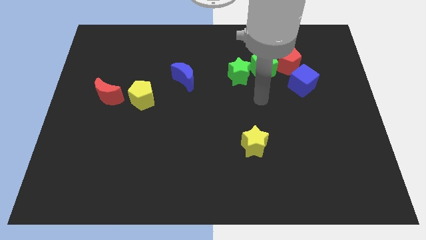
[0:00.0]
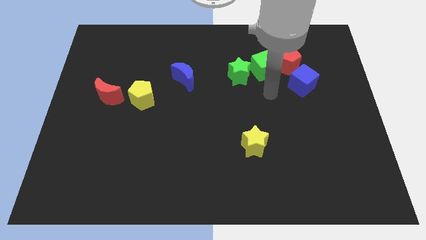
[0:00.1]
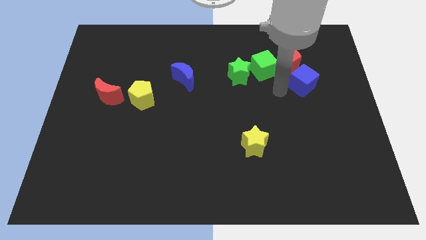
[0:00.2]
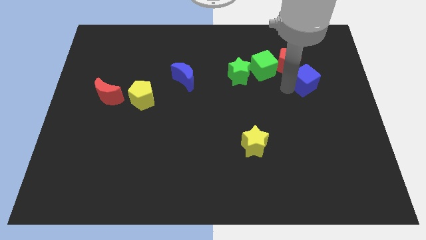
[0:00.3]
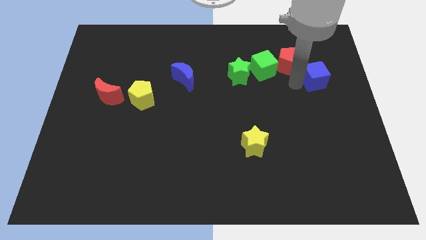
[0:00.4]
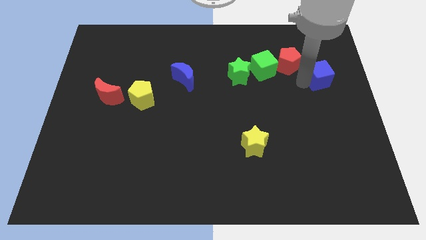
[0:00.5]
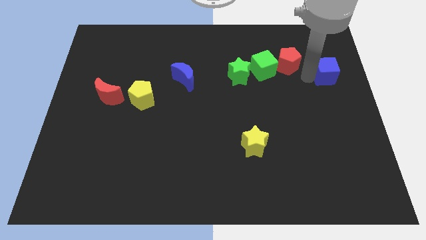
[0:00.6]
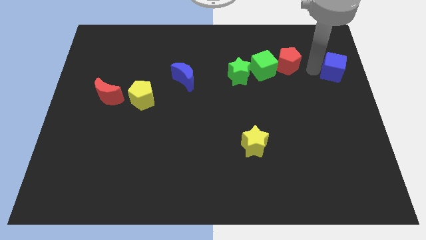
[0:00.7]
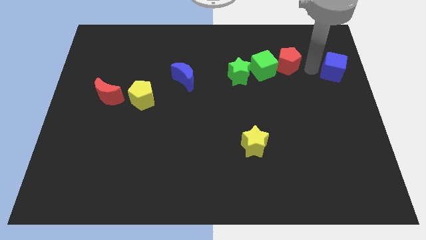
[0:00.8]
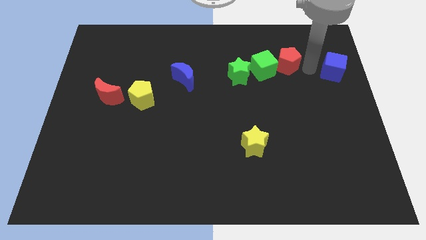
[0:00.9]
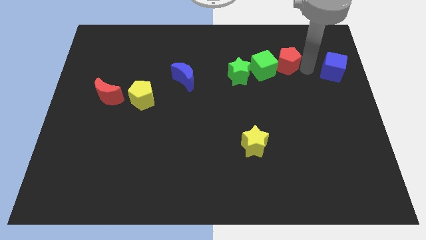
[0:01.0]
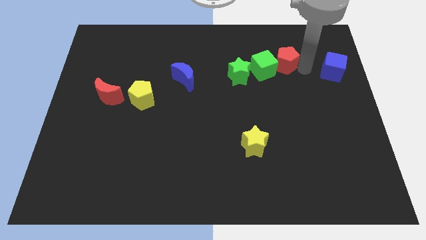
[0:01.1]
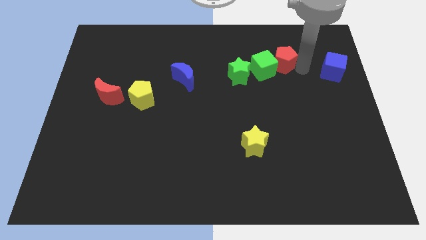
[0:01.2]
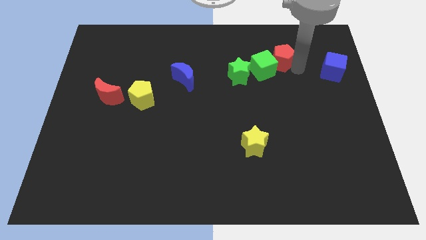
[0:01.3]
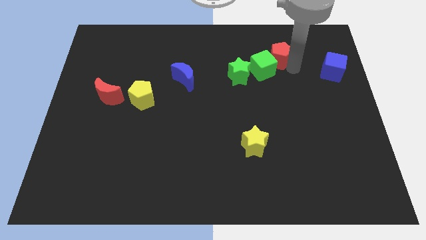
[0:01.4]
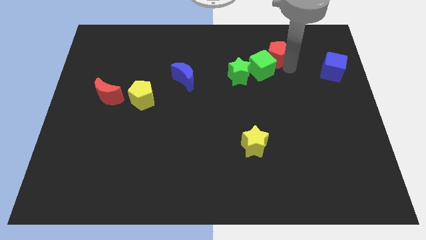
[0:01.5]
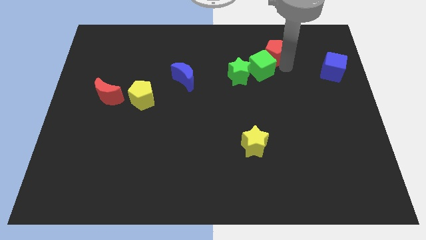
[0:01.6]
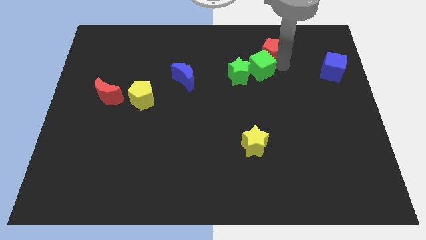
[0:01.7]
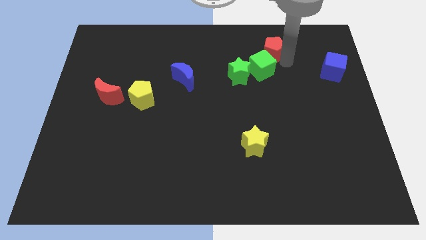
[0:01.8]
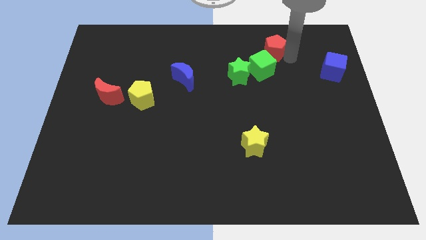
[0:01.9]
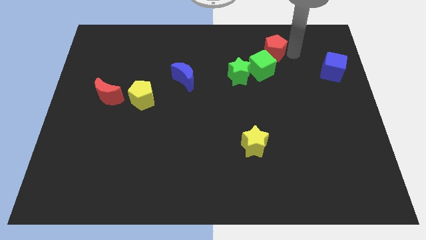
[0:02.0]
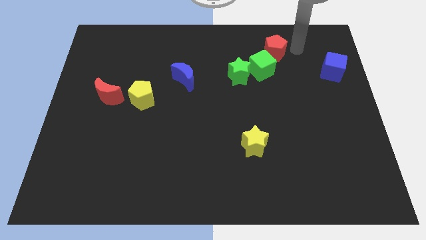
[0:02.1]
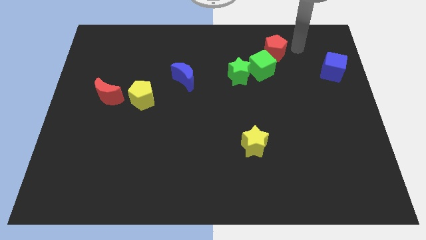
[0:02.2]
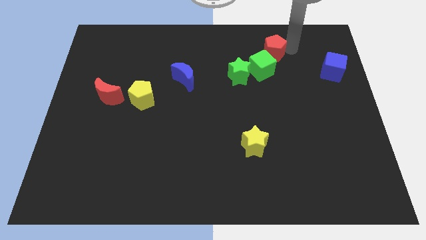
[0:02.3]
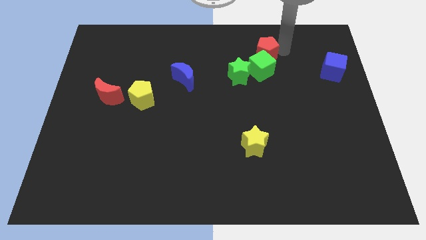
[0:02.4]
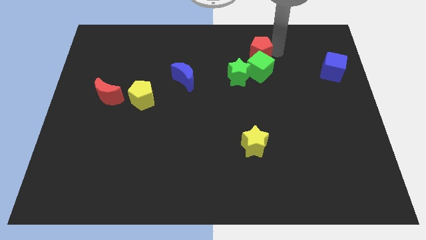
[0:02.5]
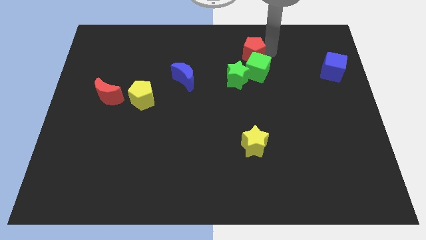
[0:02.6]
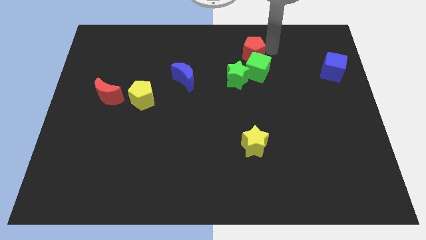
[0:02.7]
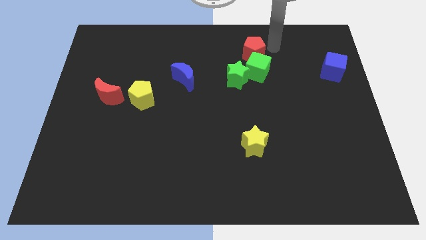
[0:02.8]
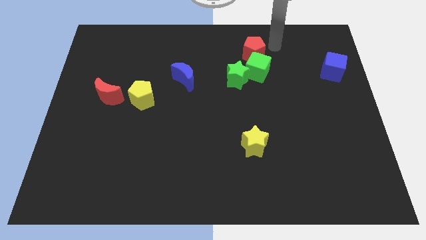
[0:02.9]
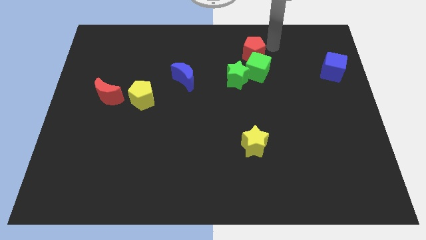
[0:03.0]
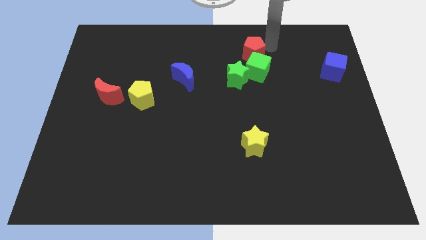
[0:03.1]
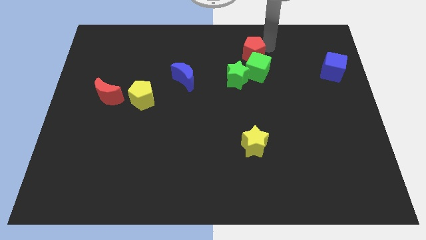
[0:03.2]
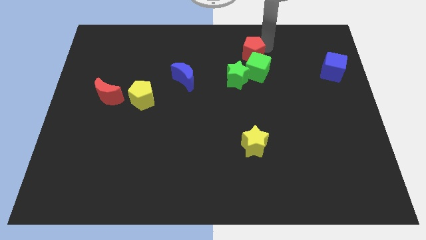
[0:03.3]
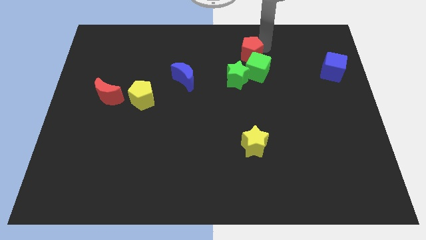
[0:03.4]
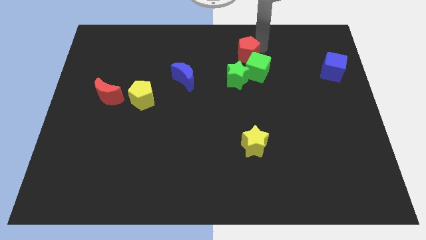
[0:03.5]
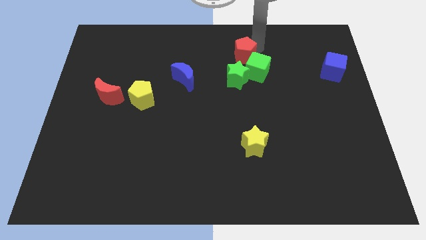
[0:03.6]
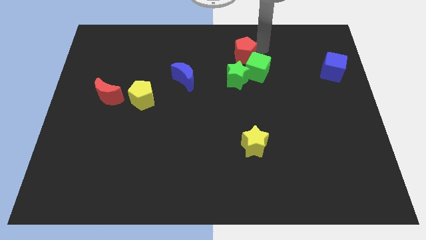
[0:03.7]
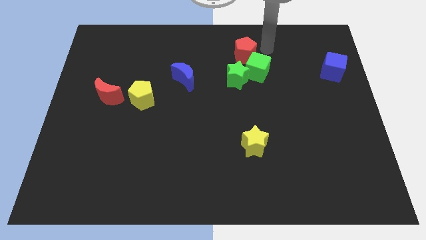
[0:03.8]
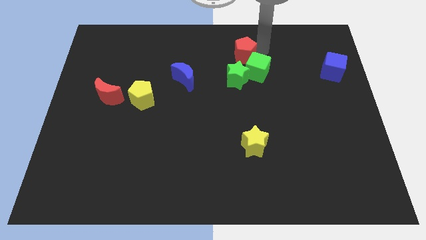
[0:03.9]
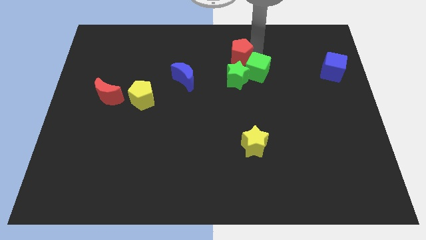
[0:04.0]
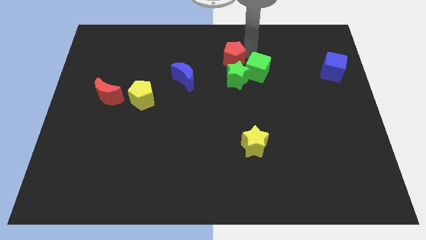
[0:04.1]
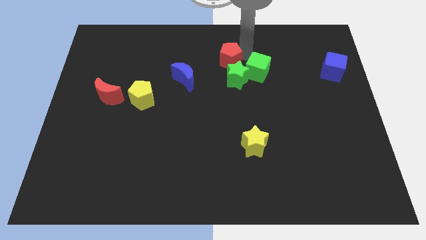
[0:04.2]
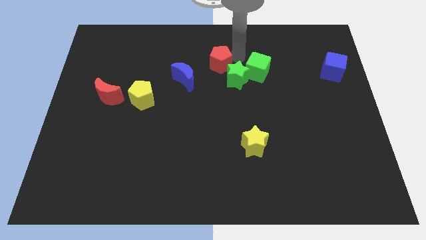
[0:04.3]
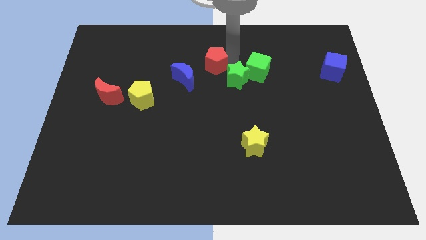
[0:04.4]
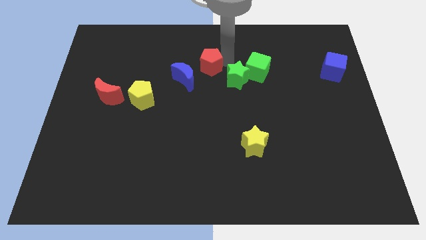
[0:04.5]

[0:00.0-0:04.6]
push the red pentagon to the left

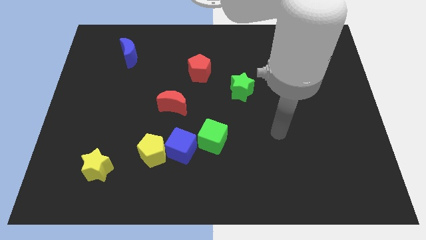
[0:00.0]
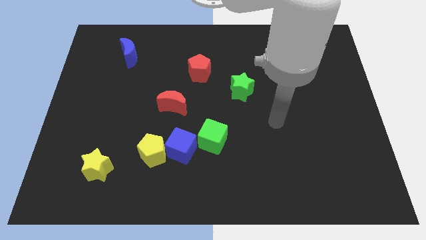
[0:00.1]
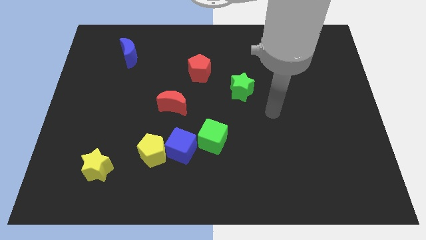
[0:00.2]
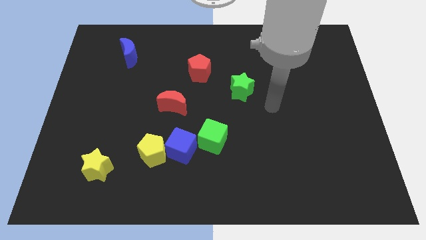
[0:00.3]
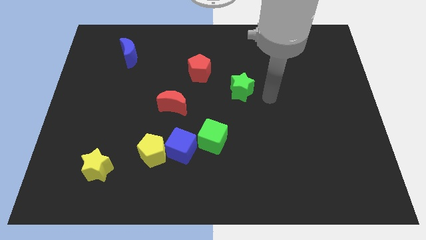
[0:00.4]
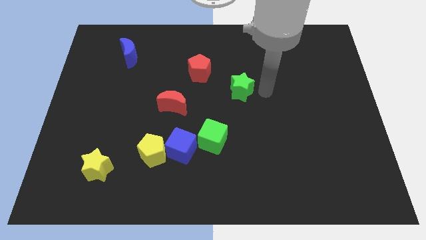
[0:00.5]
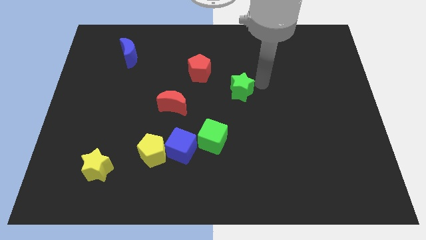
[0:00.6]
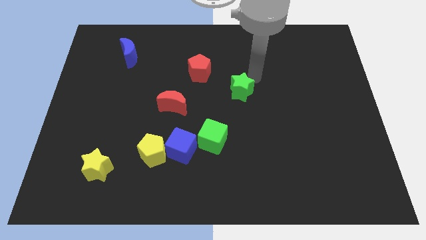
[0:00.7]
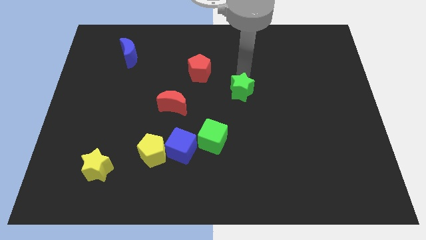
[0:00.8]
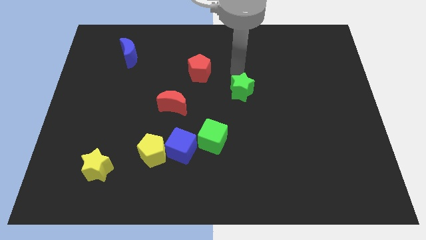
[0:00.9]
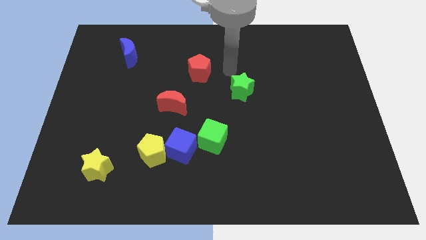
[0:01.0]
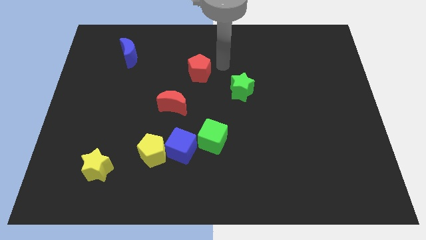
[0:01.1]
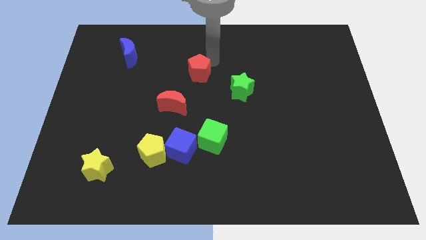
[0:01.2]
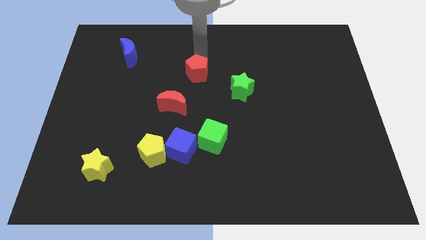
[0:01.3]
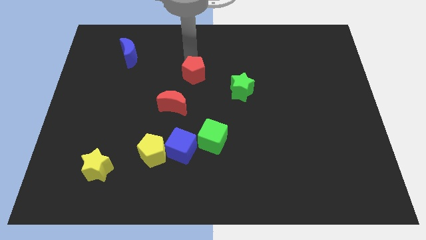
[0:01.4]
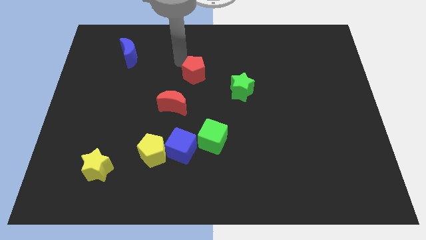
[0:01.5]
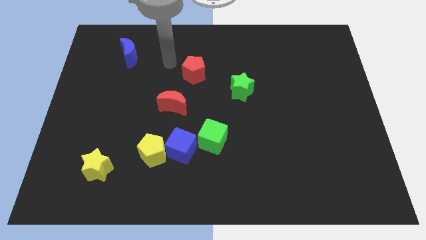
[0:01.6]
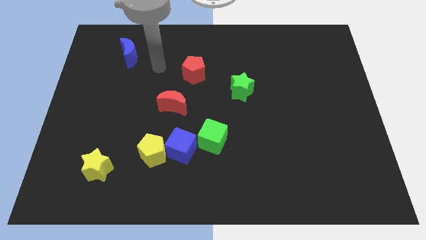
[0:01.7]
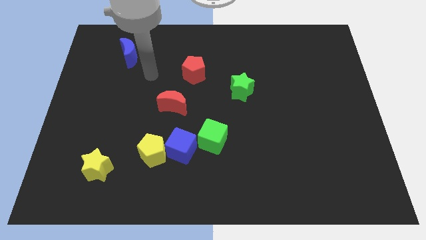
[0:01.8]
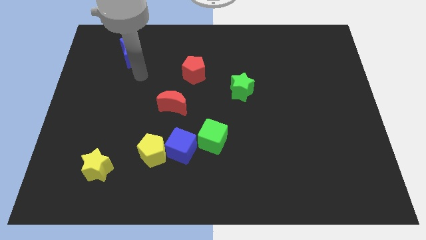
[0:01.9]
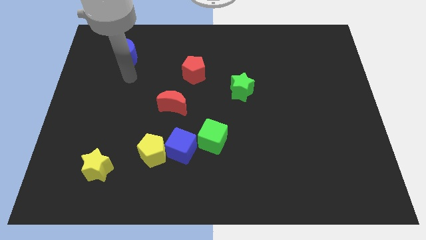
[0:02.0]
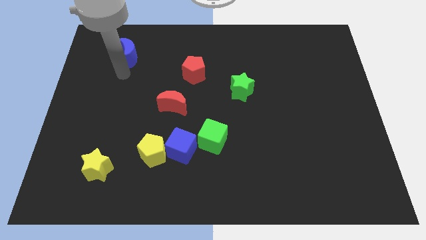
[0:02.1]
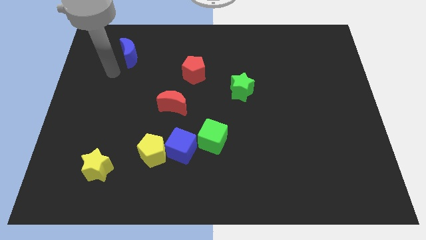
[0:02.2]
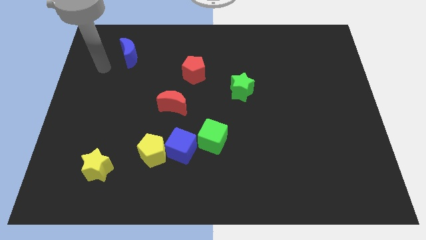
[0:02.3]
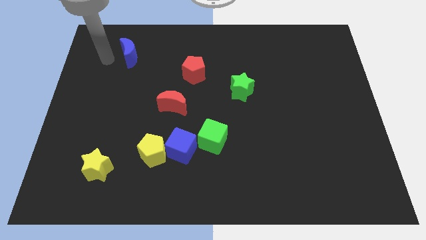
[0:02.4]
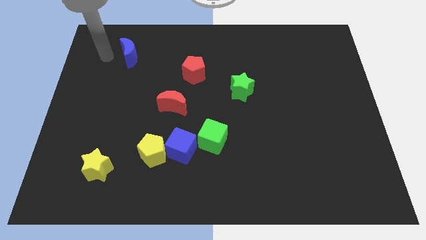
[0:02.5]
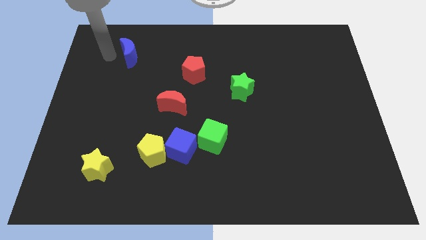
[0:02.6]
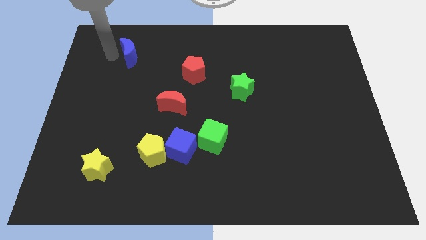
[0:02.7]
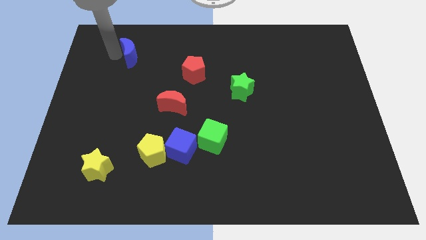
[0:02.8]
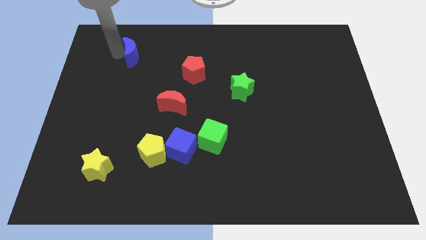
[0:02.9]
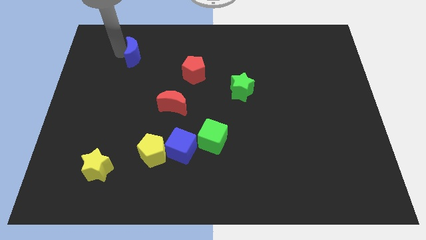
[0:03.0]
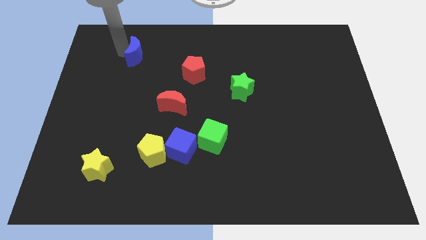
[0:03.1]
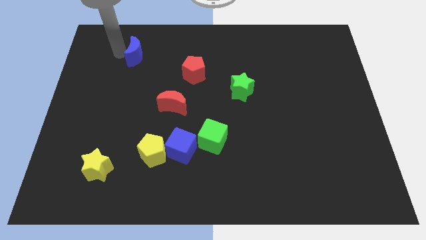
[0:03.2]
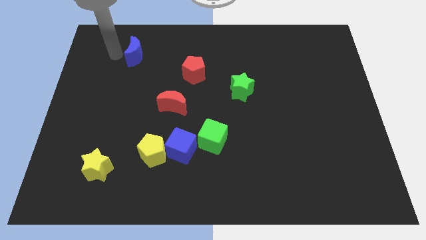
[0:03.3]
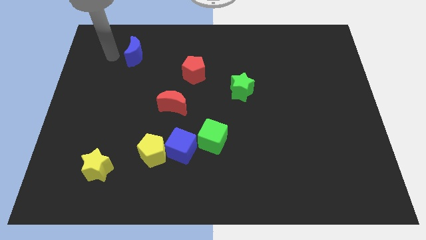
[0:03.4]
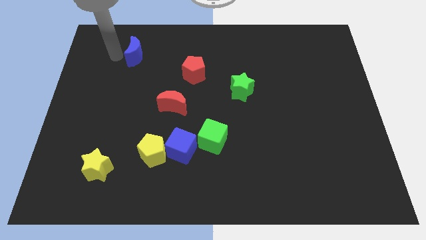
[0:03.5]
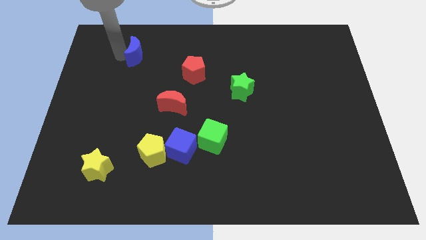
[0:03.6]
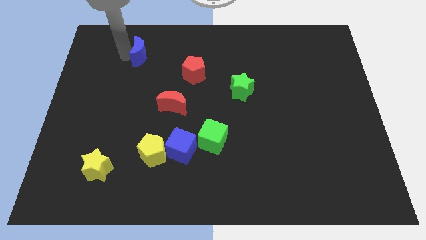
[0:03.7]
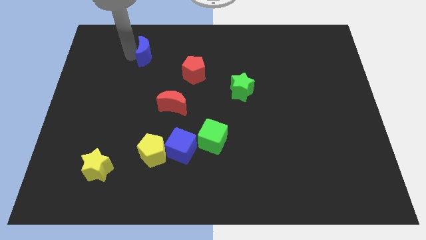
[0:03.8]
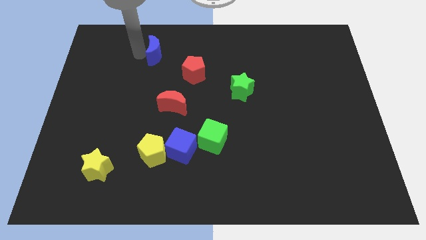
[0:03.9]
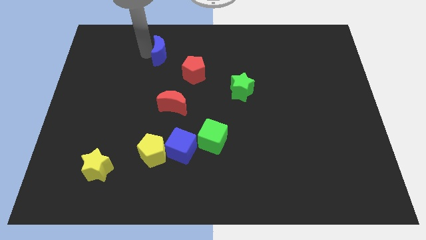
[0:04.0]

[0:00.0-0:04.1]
slightly push the blue moon to the right
